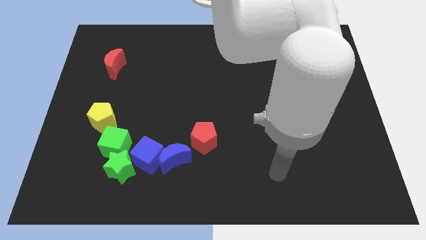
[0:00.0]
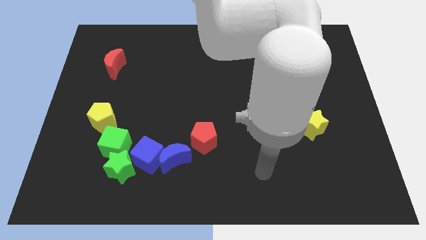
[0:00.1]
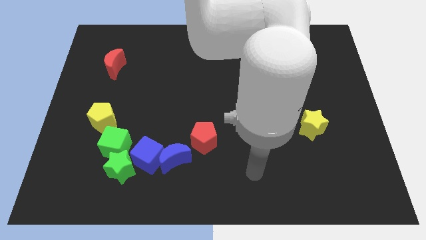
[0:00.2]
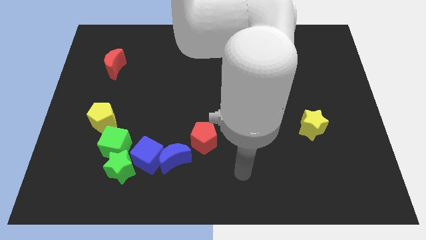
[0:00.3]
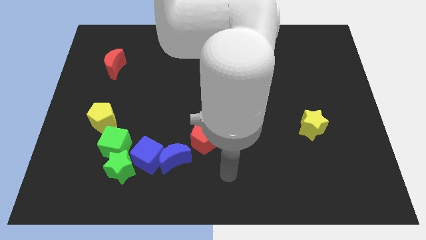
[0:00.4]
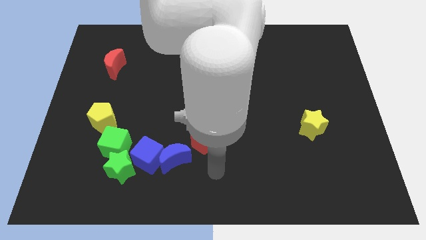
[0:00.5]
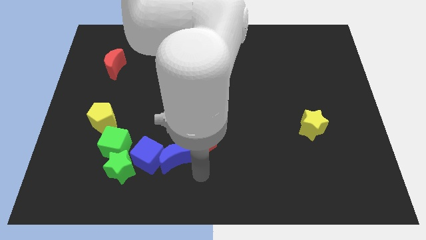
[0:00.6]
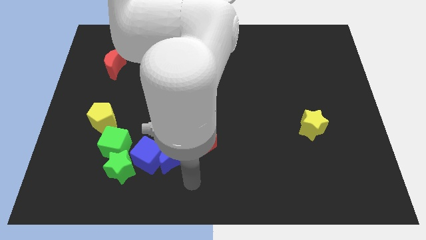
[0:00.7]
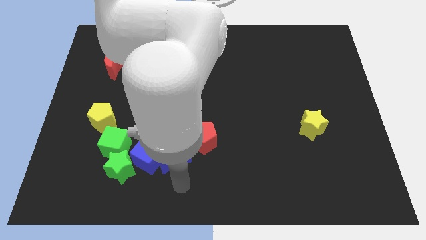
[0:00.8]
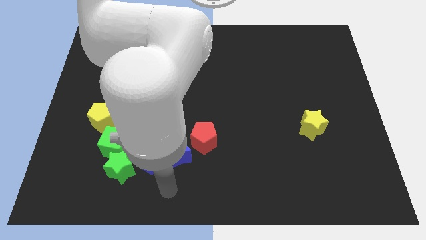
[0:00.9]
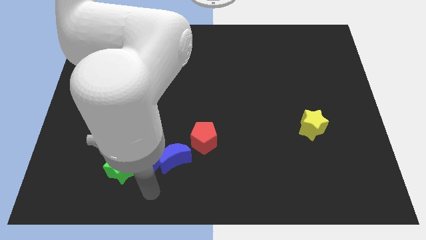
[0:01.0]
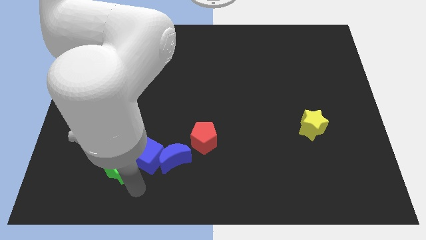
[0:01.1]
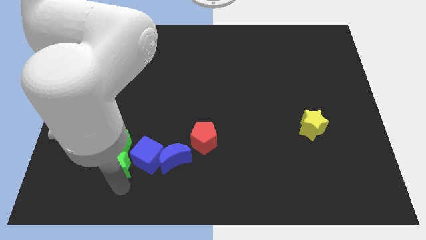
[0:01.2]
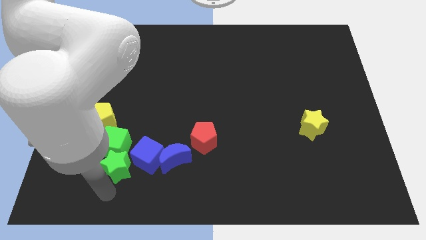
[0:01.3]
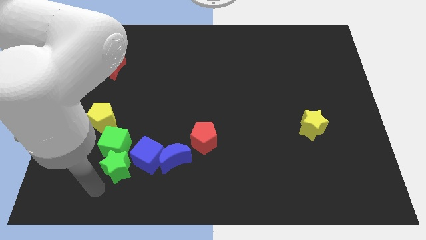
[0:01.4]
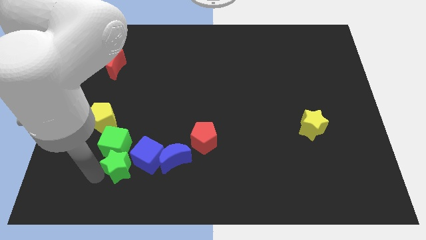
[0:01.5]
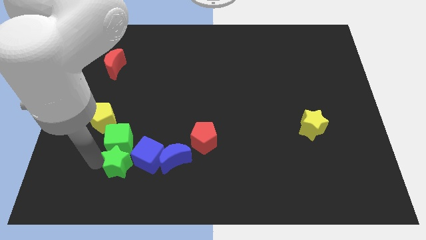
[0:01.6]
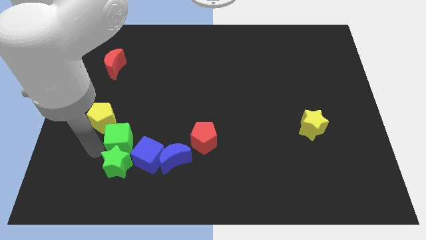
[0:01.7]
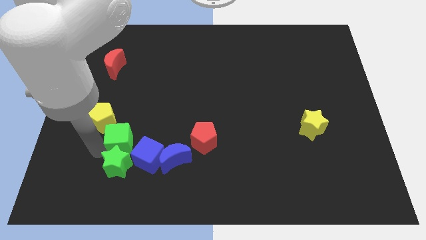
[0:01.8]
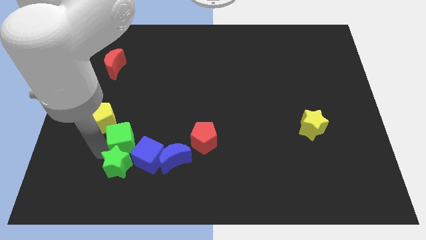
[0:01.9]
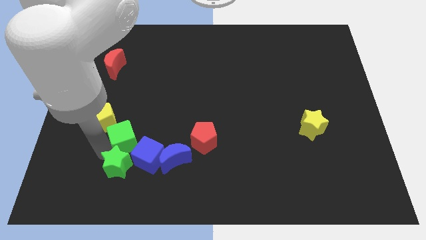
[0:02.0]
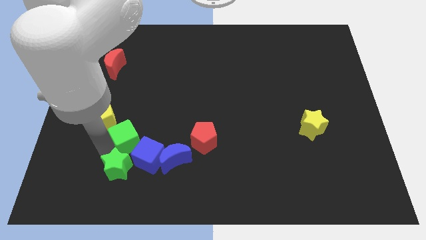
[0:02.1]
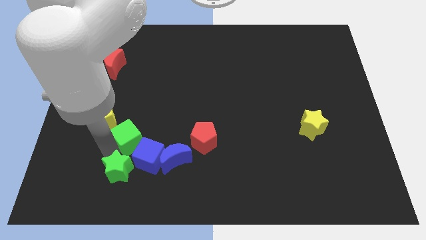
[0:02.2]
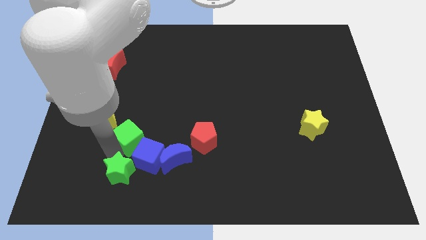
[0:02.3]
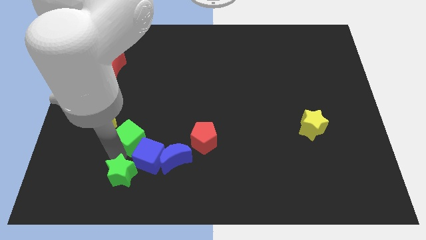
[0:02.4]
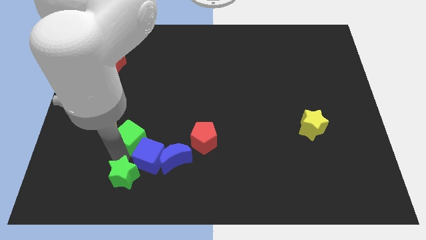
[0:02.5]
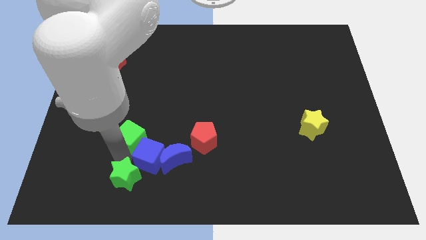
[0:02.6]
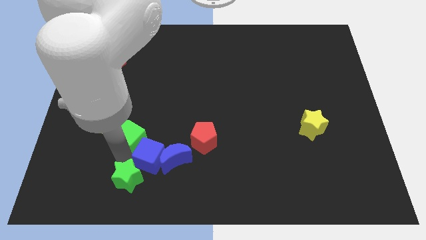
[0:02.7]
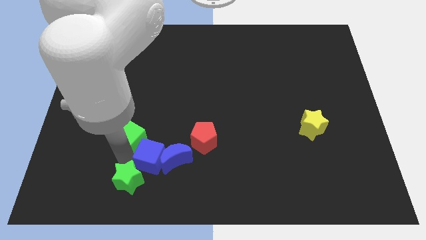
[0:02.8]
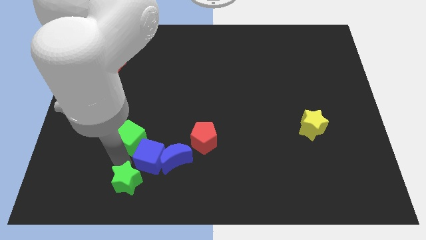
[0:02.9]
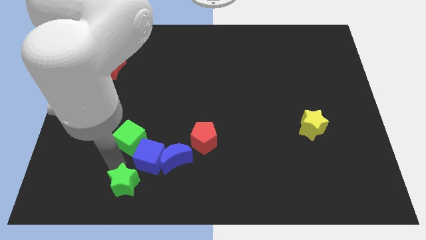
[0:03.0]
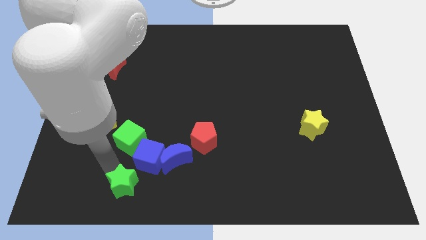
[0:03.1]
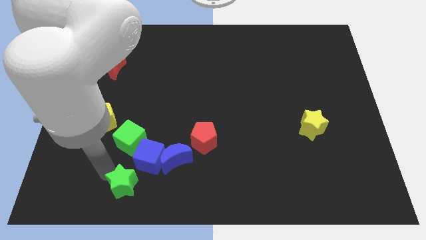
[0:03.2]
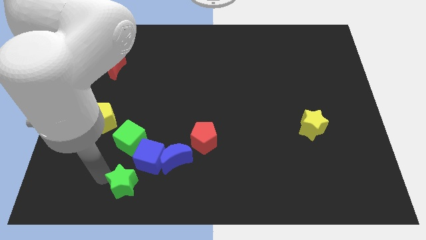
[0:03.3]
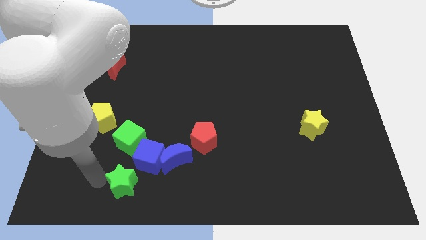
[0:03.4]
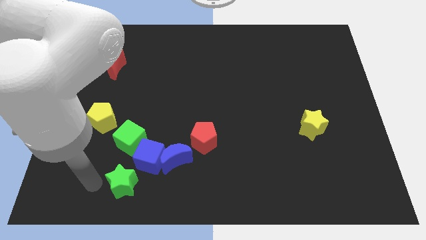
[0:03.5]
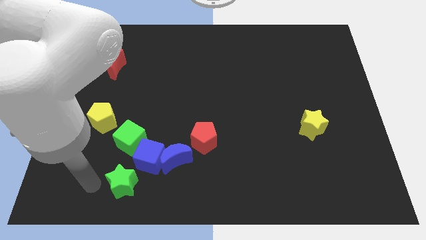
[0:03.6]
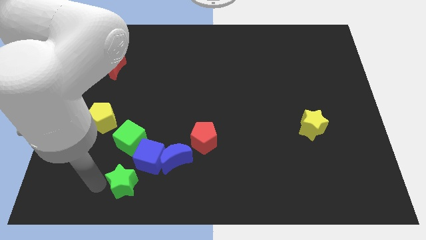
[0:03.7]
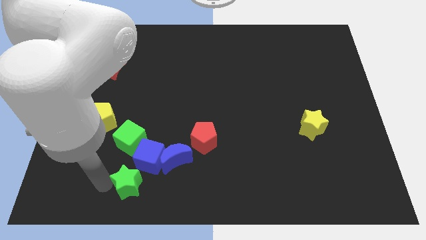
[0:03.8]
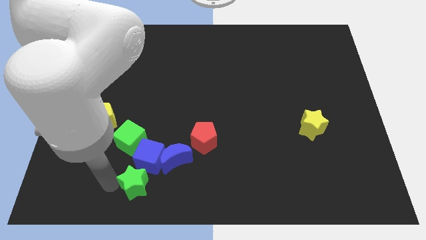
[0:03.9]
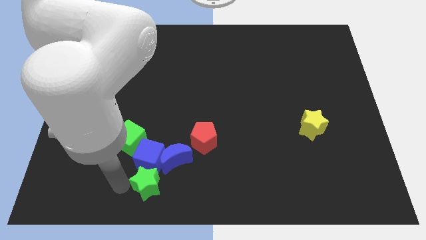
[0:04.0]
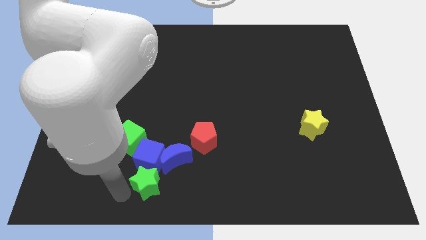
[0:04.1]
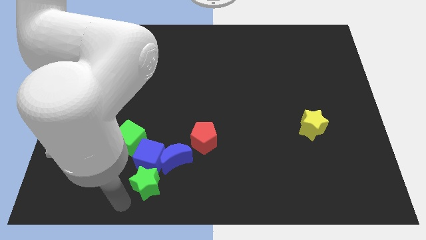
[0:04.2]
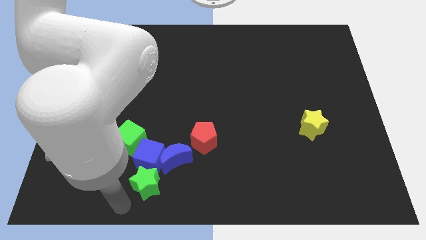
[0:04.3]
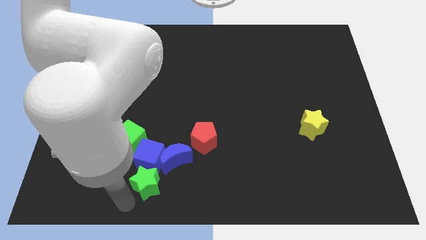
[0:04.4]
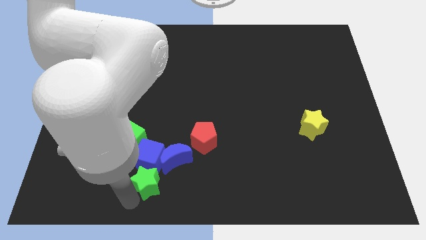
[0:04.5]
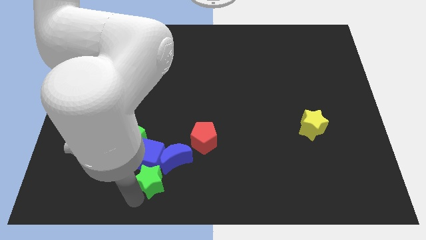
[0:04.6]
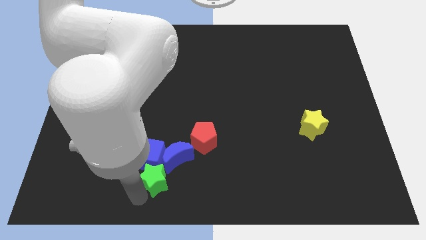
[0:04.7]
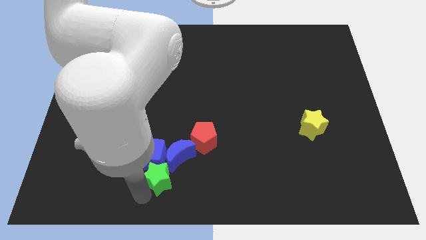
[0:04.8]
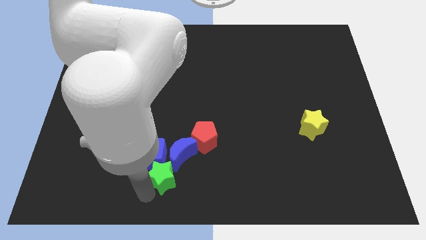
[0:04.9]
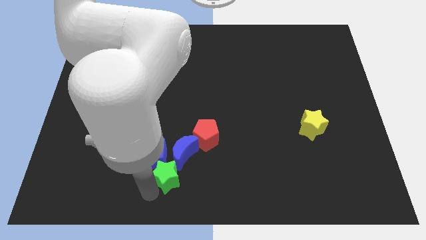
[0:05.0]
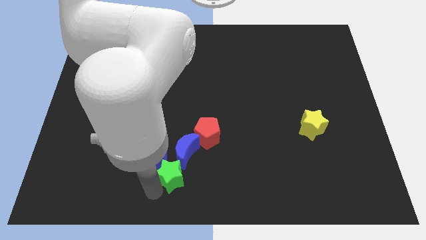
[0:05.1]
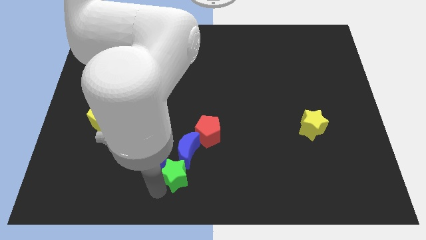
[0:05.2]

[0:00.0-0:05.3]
move the green star towards the blue moon

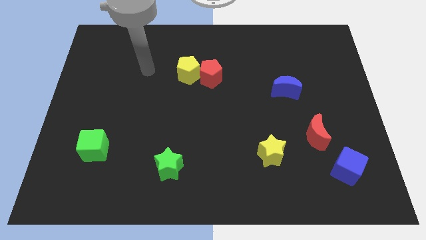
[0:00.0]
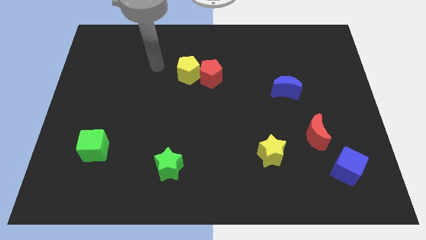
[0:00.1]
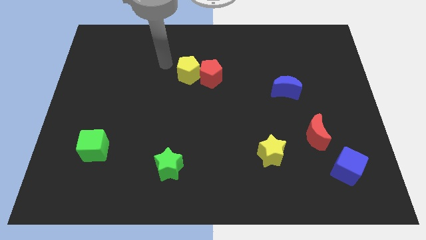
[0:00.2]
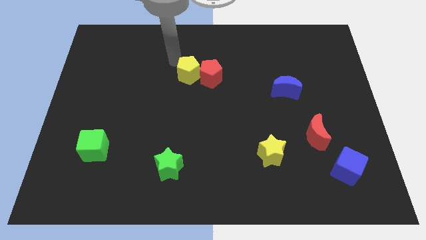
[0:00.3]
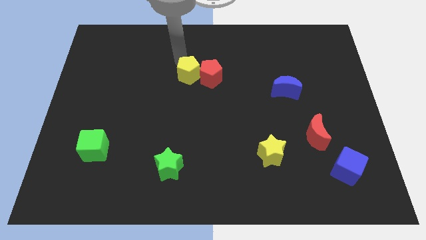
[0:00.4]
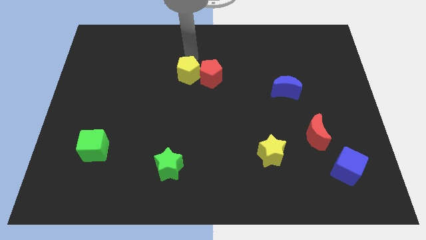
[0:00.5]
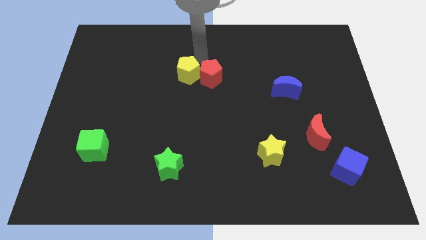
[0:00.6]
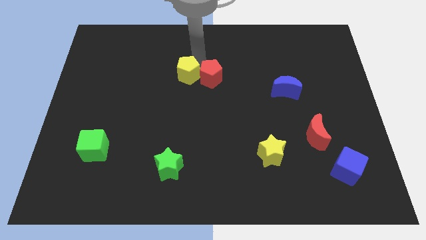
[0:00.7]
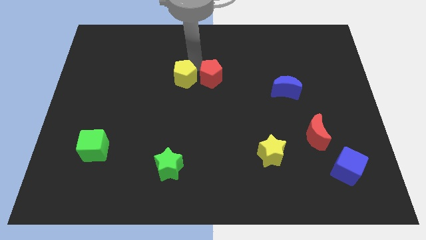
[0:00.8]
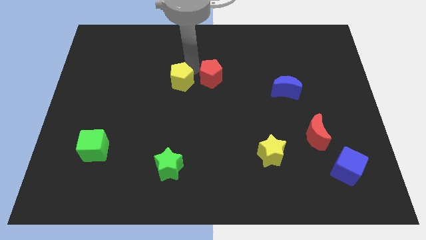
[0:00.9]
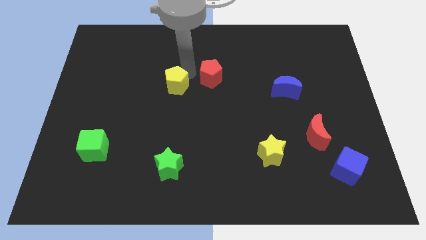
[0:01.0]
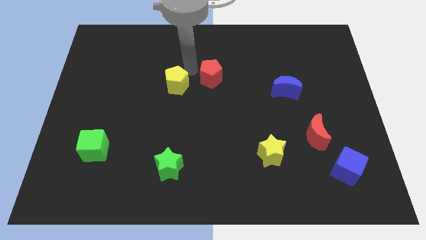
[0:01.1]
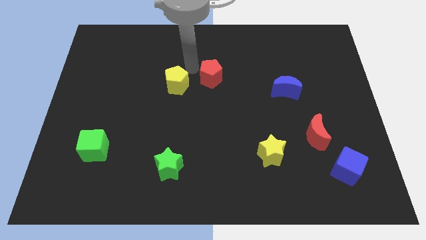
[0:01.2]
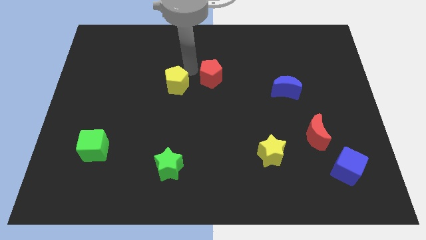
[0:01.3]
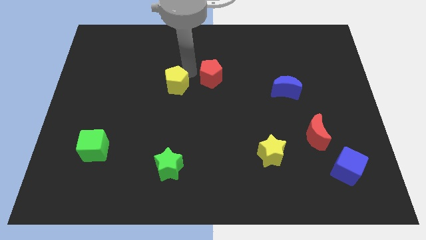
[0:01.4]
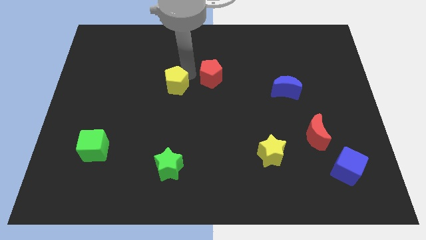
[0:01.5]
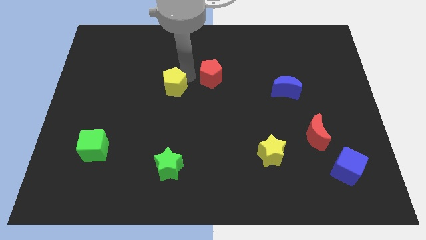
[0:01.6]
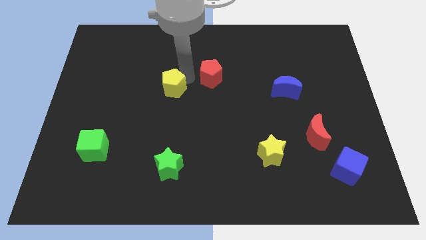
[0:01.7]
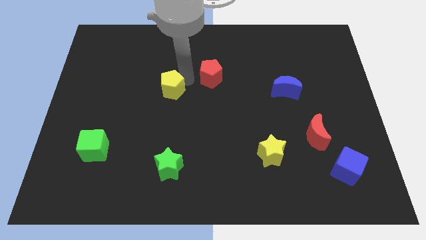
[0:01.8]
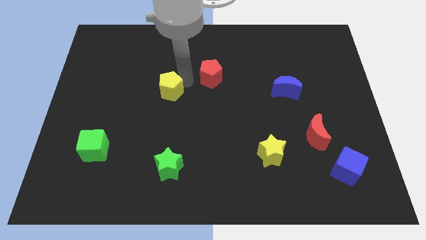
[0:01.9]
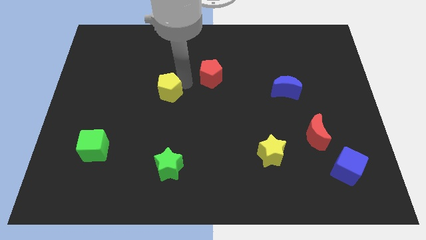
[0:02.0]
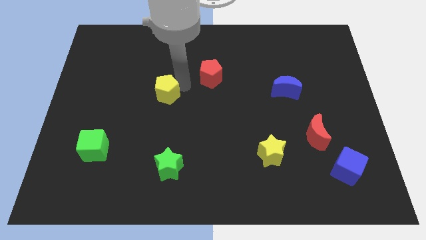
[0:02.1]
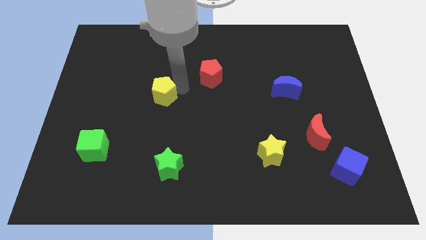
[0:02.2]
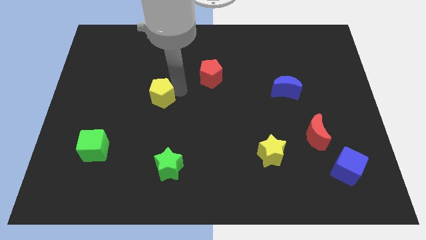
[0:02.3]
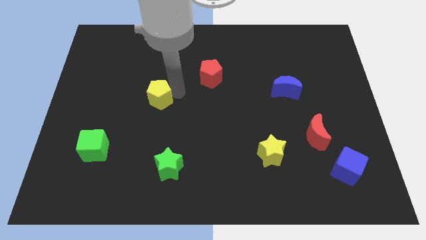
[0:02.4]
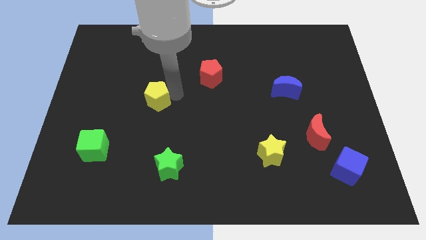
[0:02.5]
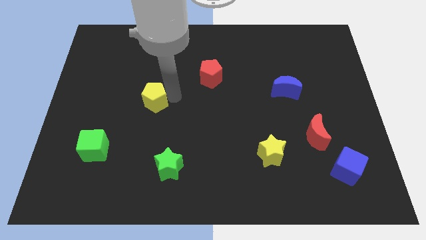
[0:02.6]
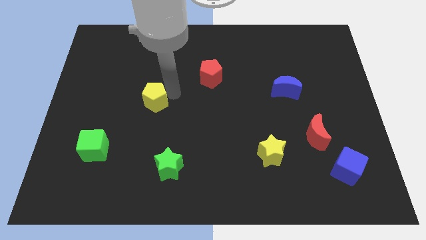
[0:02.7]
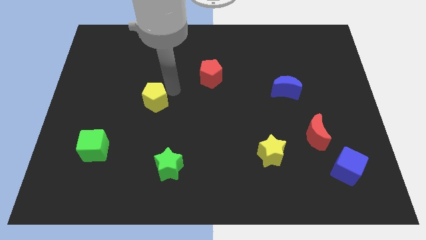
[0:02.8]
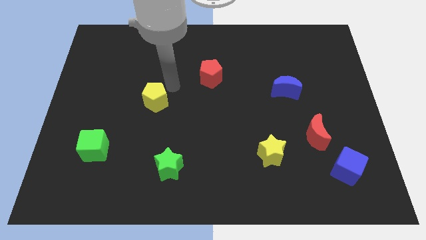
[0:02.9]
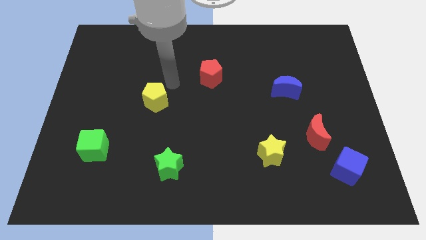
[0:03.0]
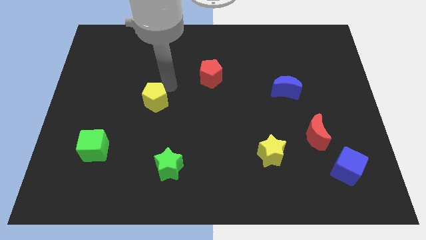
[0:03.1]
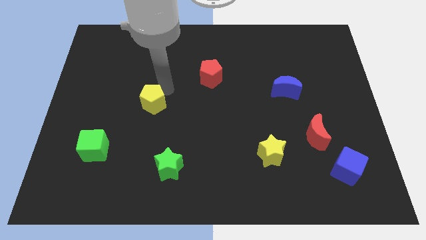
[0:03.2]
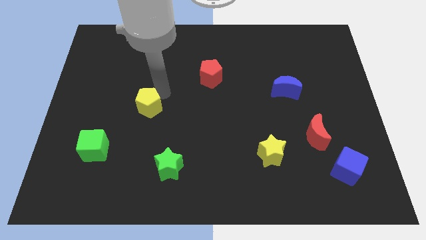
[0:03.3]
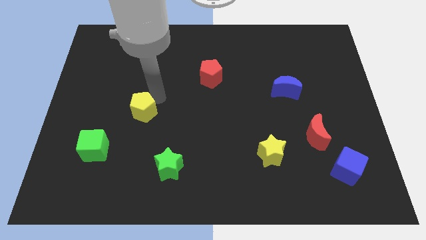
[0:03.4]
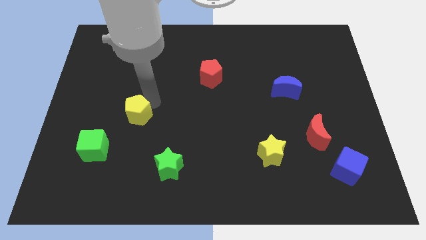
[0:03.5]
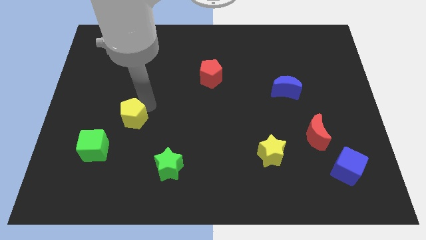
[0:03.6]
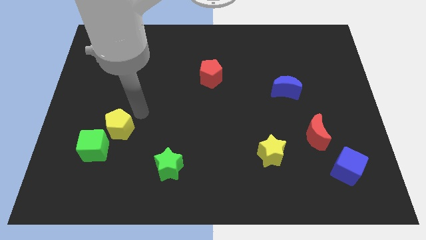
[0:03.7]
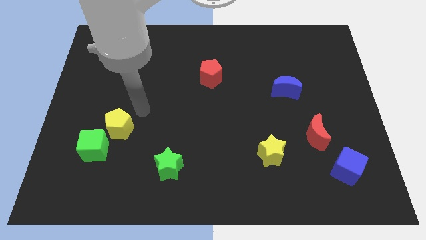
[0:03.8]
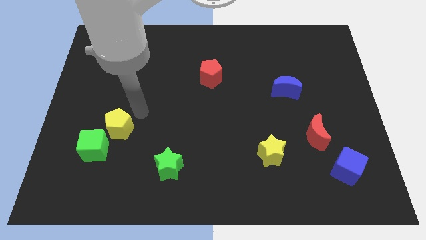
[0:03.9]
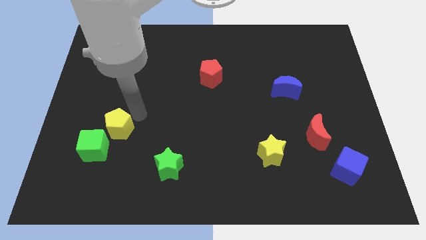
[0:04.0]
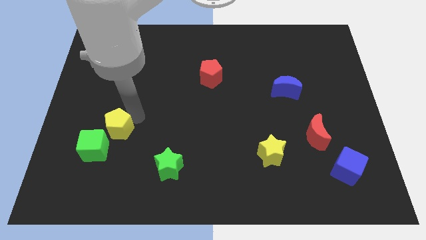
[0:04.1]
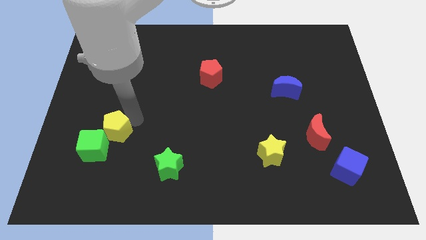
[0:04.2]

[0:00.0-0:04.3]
slide the yellow pentagon to the green cube
